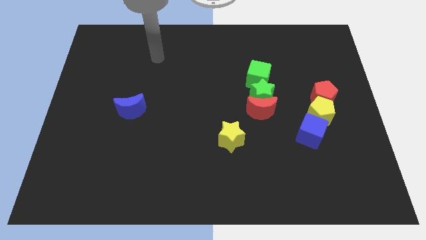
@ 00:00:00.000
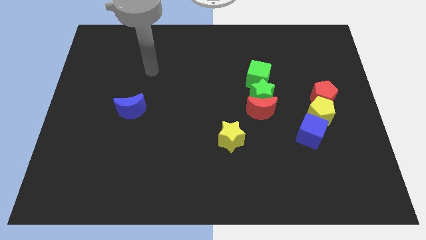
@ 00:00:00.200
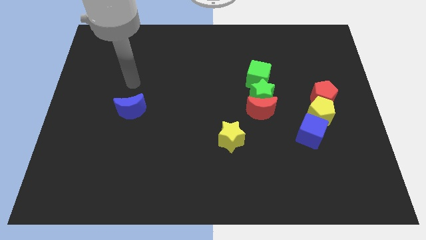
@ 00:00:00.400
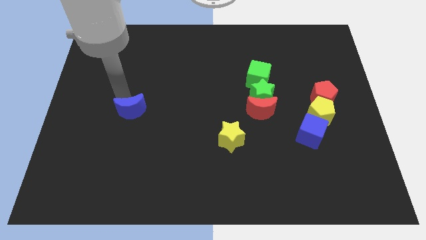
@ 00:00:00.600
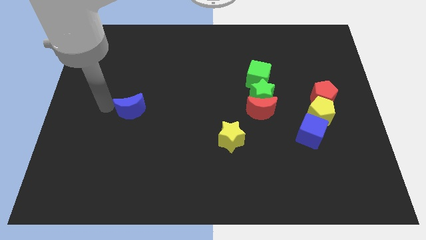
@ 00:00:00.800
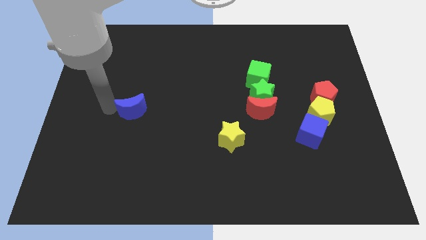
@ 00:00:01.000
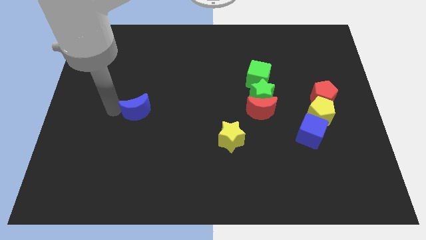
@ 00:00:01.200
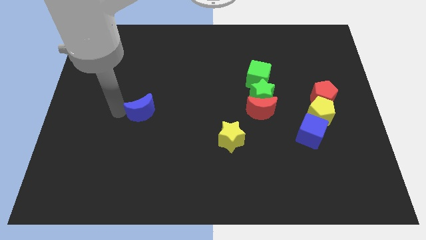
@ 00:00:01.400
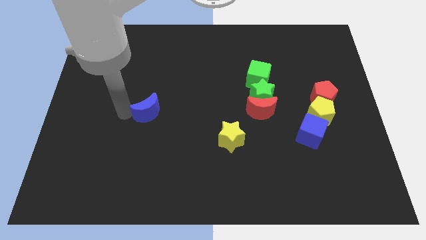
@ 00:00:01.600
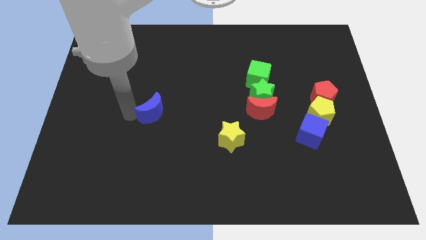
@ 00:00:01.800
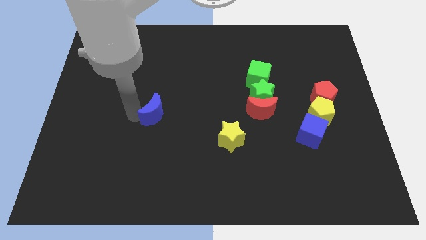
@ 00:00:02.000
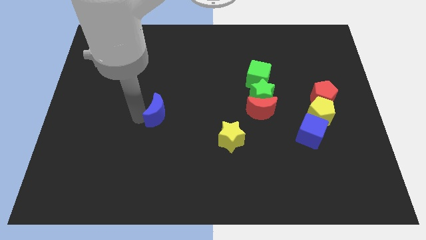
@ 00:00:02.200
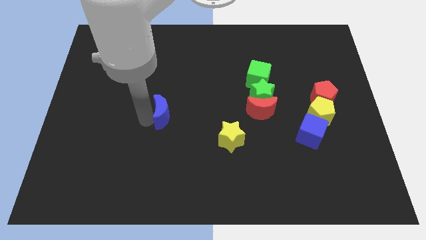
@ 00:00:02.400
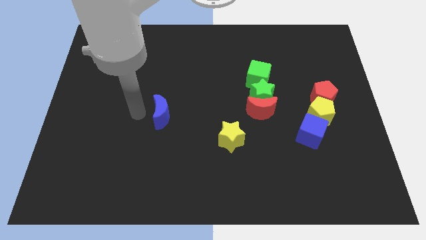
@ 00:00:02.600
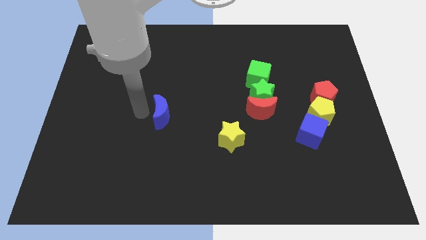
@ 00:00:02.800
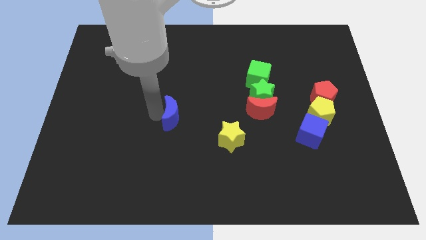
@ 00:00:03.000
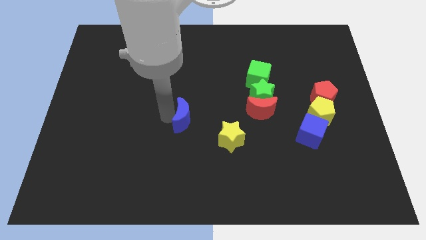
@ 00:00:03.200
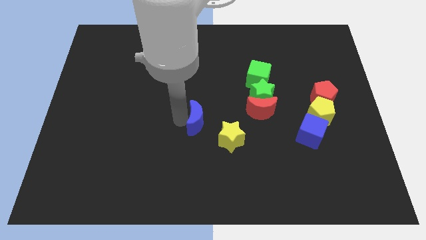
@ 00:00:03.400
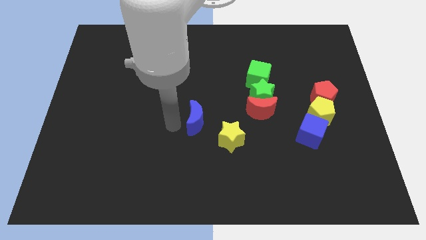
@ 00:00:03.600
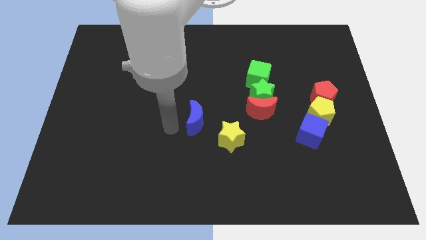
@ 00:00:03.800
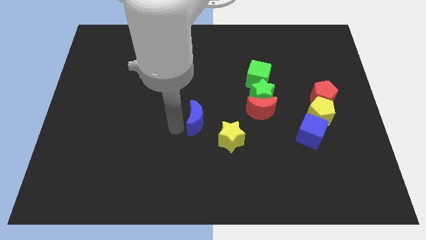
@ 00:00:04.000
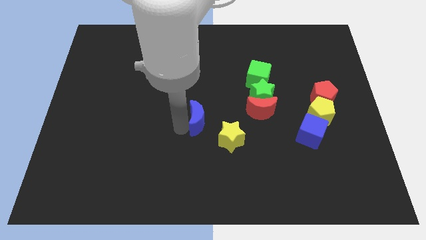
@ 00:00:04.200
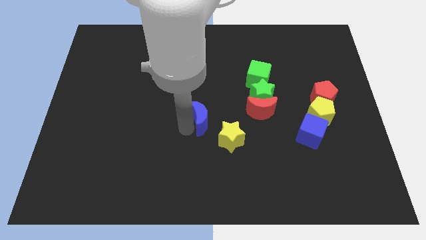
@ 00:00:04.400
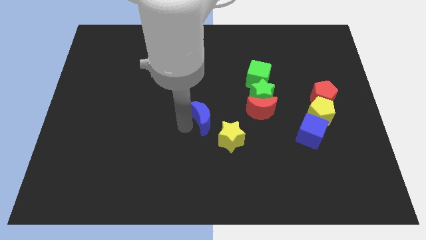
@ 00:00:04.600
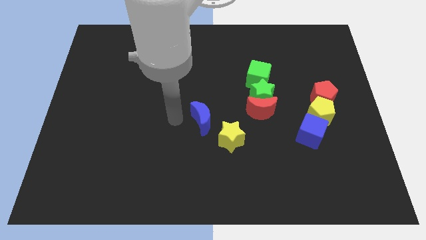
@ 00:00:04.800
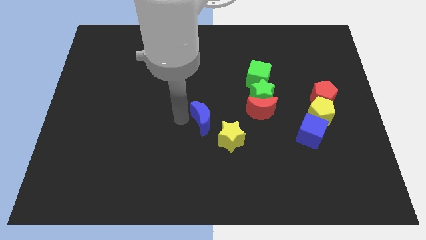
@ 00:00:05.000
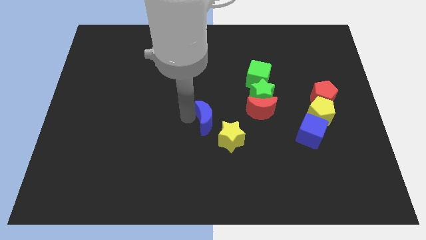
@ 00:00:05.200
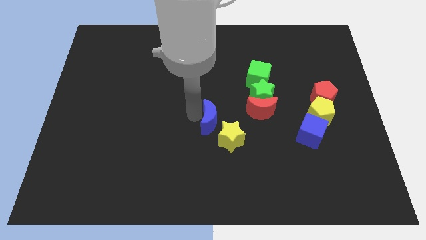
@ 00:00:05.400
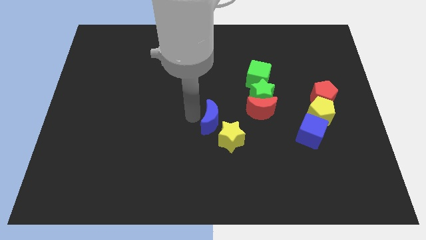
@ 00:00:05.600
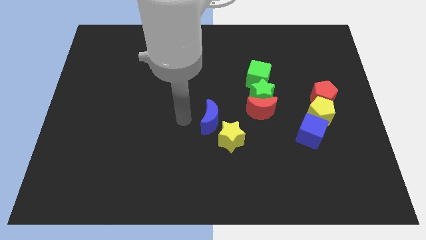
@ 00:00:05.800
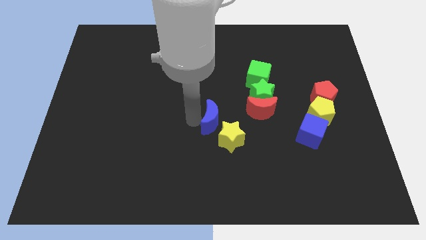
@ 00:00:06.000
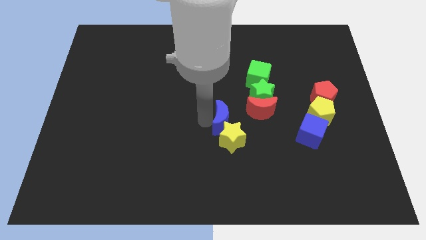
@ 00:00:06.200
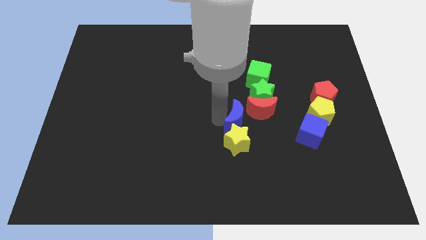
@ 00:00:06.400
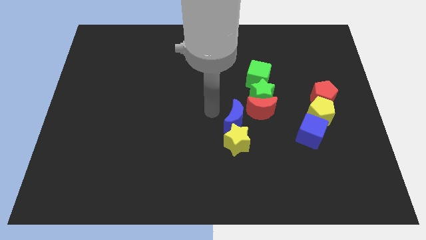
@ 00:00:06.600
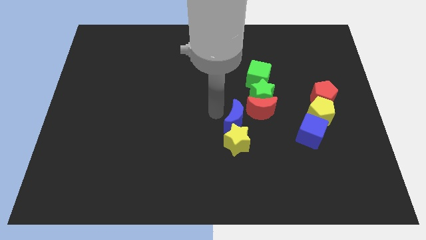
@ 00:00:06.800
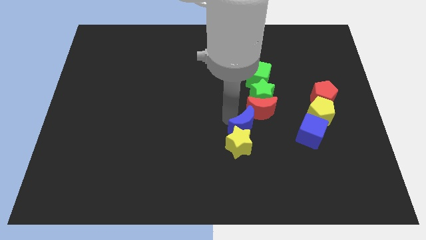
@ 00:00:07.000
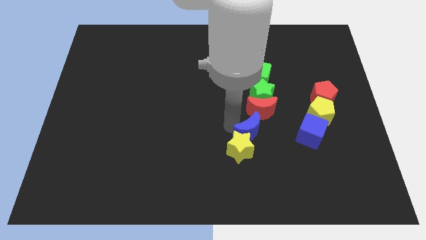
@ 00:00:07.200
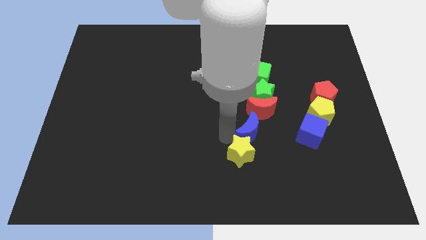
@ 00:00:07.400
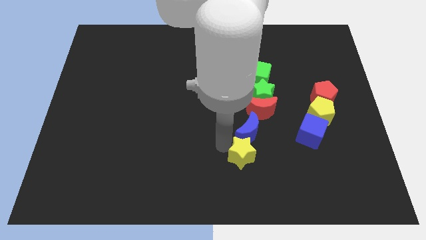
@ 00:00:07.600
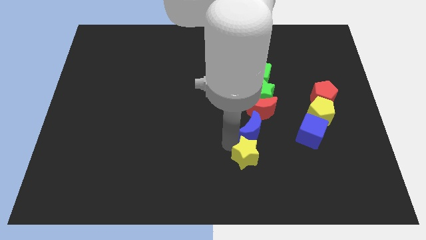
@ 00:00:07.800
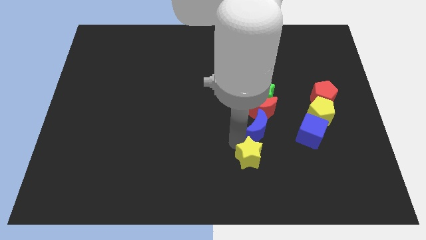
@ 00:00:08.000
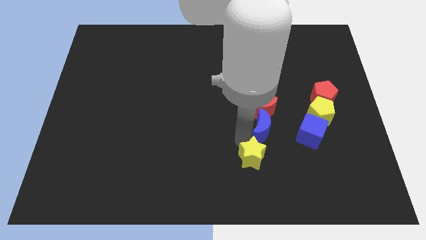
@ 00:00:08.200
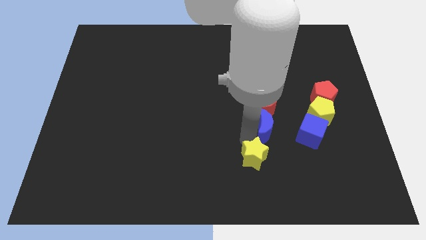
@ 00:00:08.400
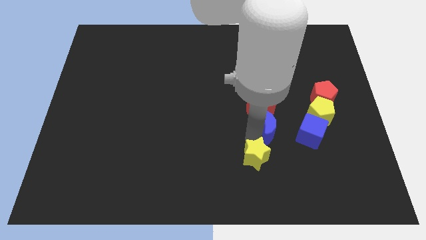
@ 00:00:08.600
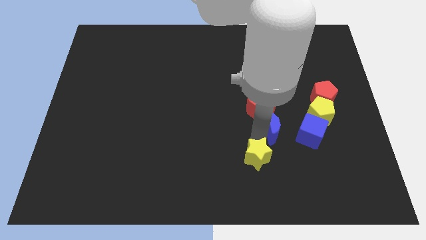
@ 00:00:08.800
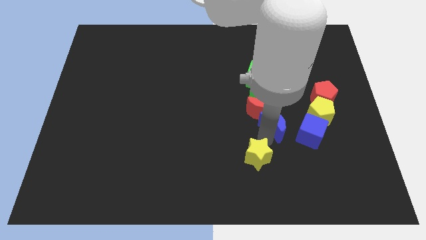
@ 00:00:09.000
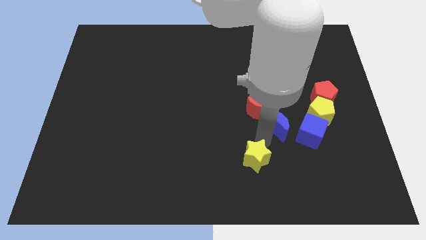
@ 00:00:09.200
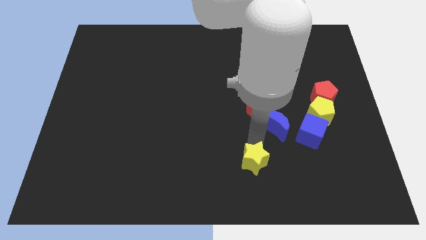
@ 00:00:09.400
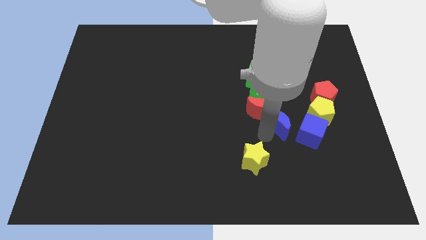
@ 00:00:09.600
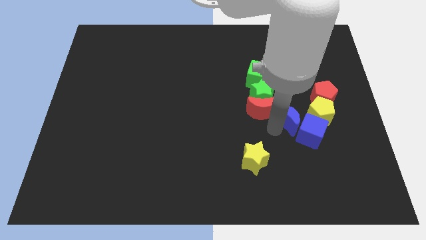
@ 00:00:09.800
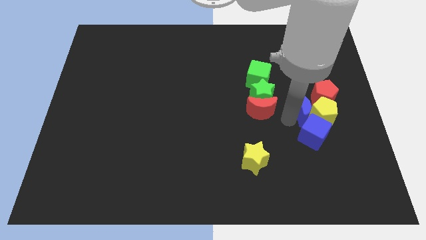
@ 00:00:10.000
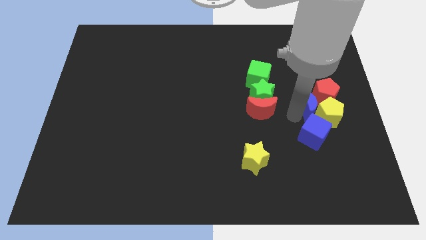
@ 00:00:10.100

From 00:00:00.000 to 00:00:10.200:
move the blue moon to the red pentagon

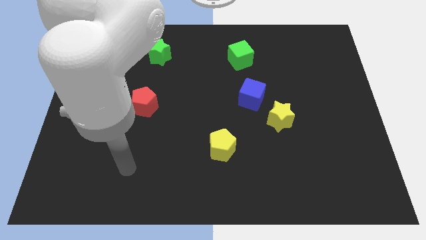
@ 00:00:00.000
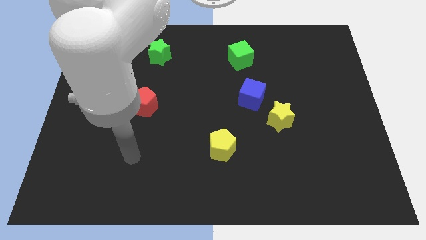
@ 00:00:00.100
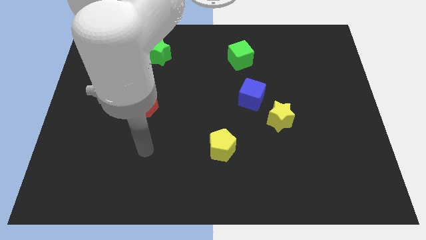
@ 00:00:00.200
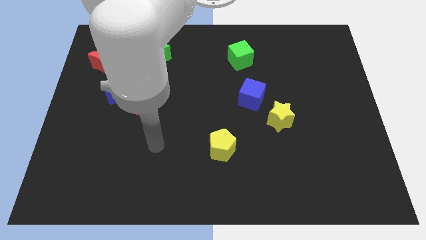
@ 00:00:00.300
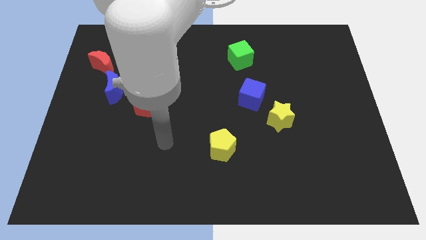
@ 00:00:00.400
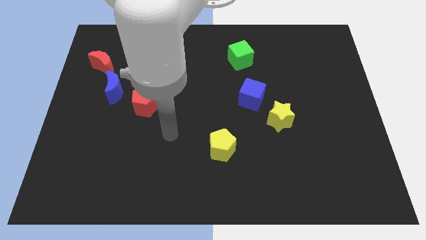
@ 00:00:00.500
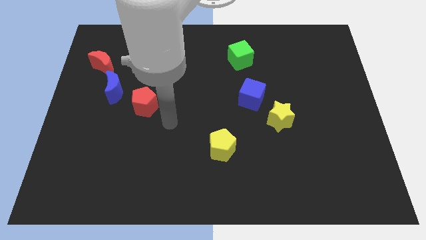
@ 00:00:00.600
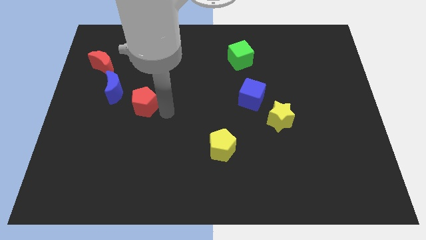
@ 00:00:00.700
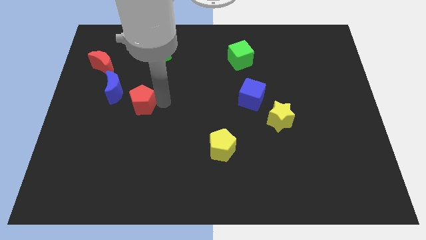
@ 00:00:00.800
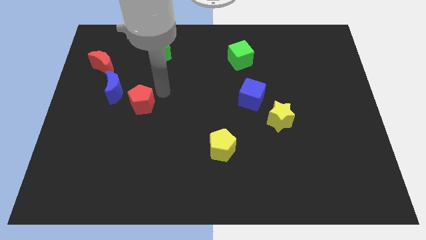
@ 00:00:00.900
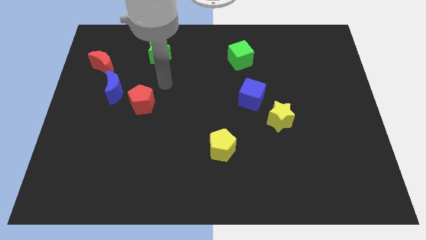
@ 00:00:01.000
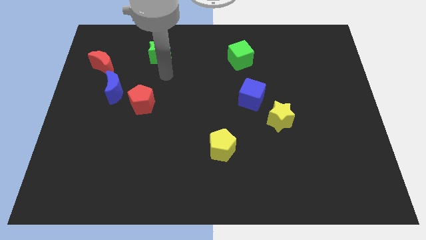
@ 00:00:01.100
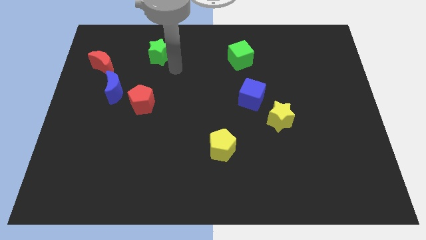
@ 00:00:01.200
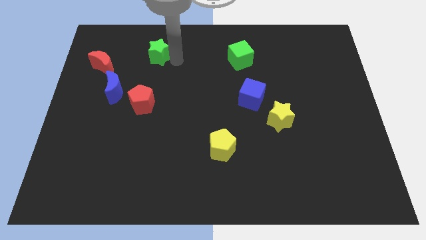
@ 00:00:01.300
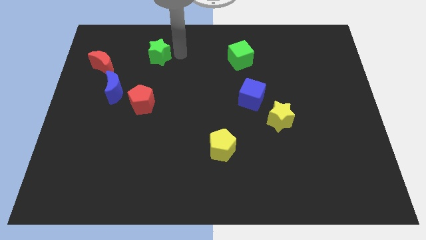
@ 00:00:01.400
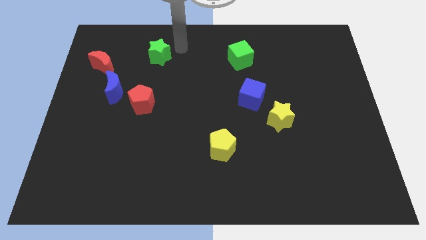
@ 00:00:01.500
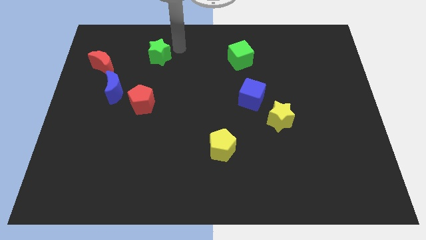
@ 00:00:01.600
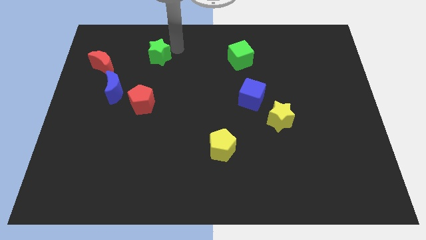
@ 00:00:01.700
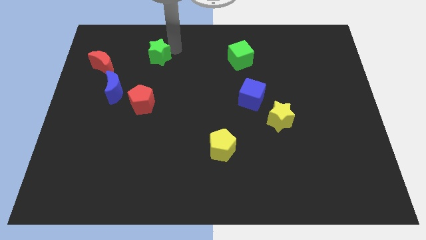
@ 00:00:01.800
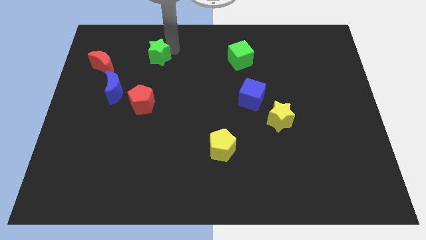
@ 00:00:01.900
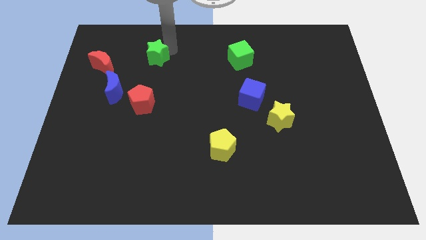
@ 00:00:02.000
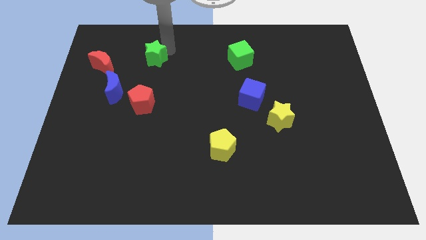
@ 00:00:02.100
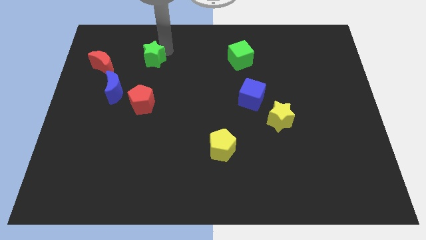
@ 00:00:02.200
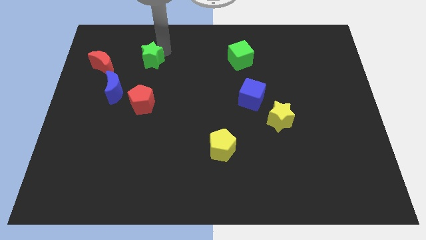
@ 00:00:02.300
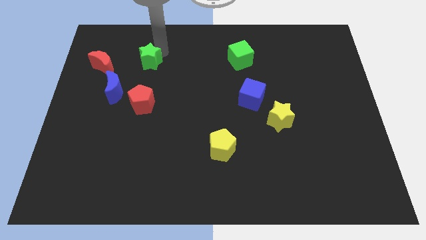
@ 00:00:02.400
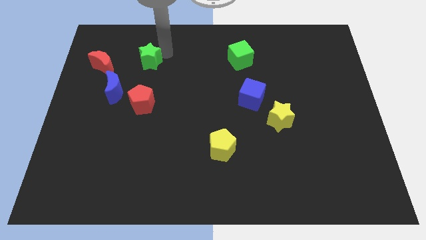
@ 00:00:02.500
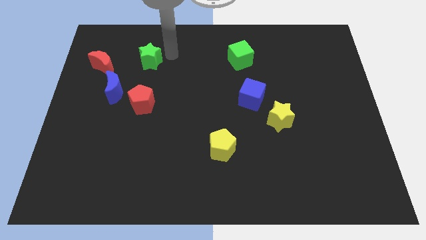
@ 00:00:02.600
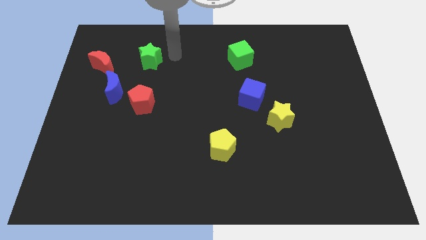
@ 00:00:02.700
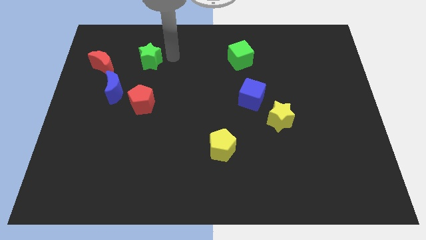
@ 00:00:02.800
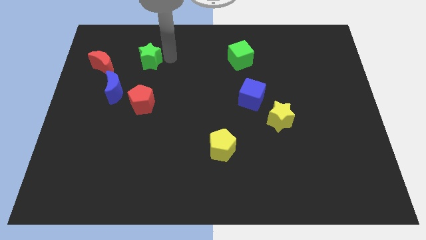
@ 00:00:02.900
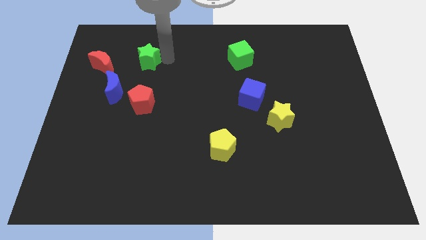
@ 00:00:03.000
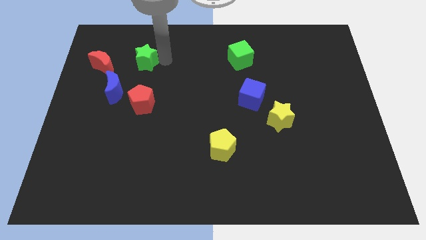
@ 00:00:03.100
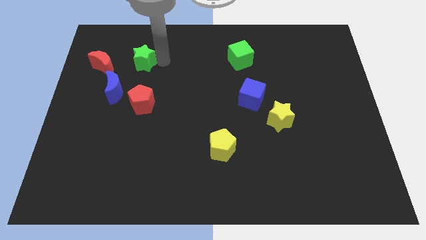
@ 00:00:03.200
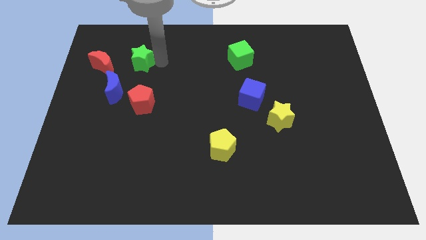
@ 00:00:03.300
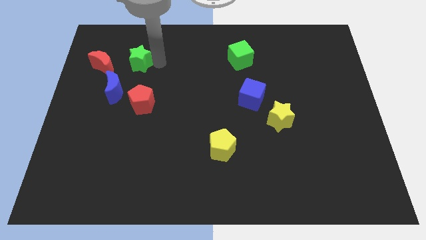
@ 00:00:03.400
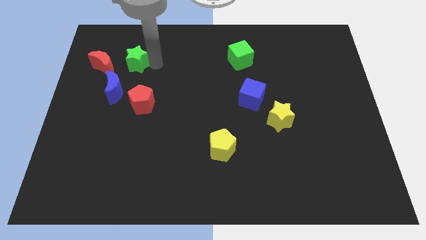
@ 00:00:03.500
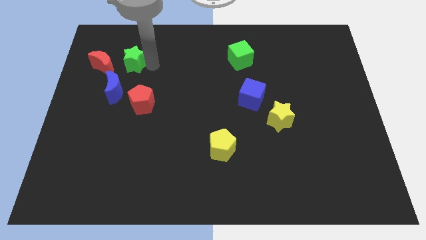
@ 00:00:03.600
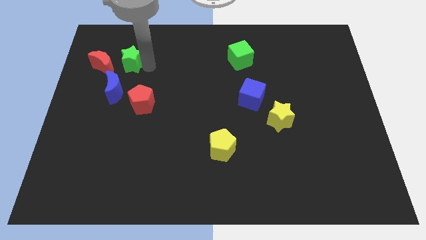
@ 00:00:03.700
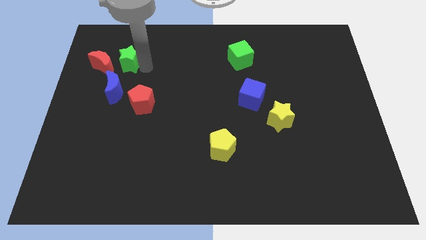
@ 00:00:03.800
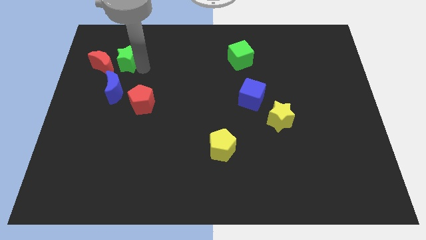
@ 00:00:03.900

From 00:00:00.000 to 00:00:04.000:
put the green star to the red moon
